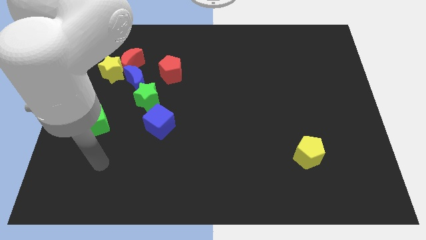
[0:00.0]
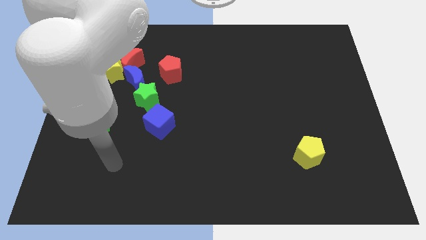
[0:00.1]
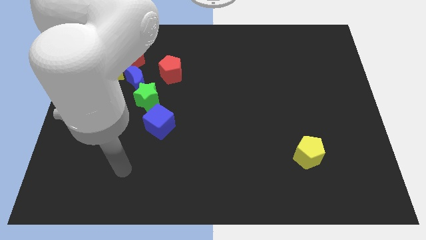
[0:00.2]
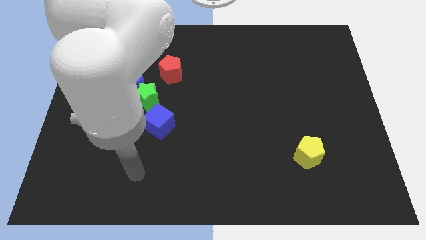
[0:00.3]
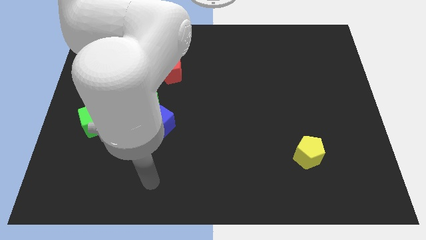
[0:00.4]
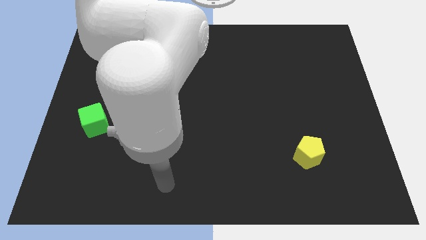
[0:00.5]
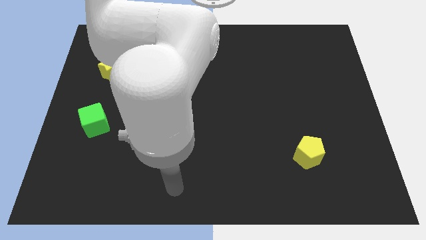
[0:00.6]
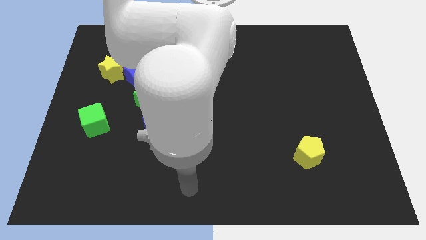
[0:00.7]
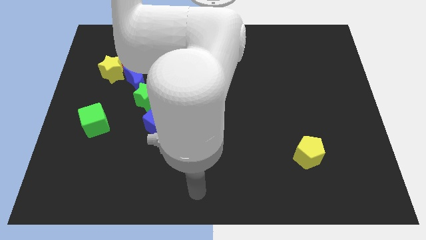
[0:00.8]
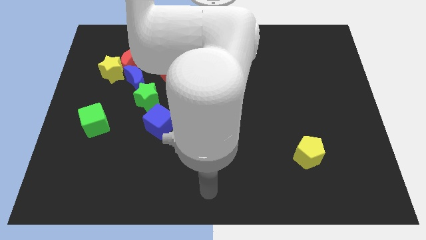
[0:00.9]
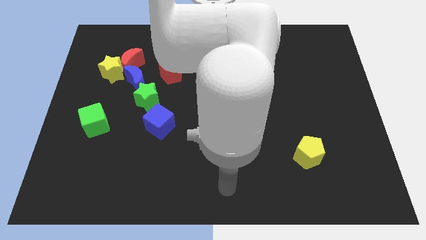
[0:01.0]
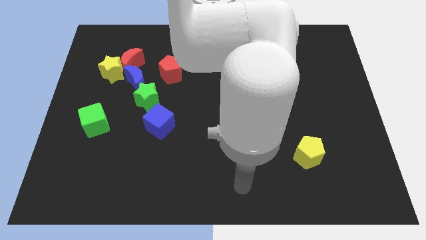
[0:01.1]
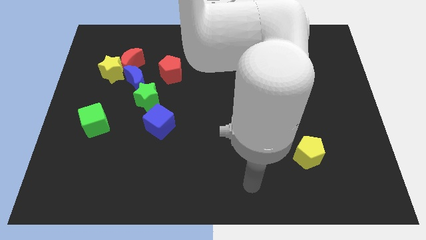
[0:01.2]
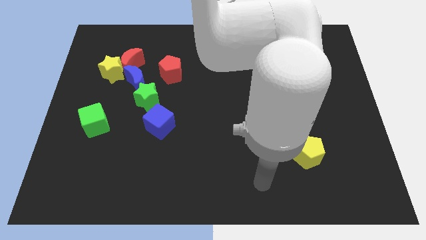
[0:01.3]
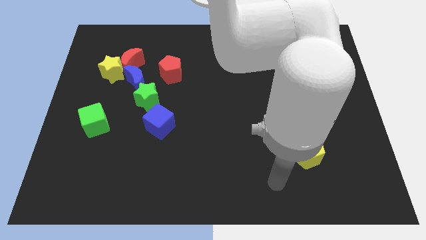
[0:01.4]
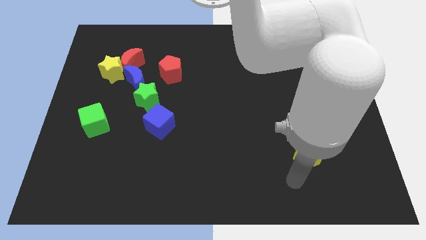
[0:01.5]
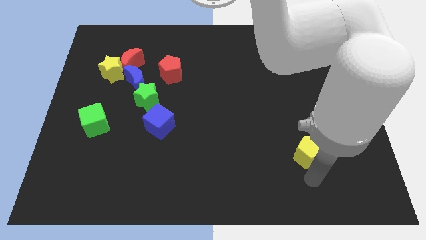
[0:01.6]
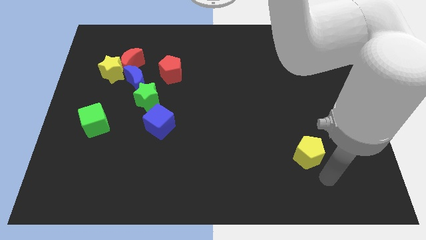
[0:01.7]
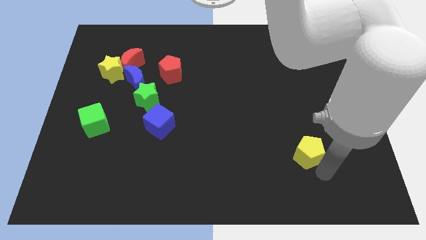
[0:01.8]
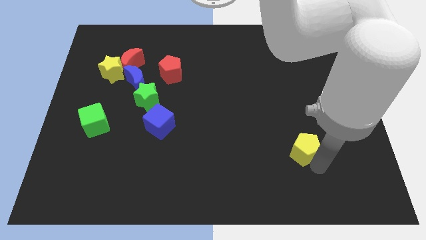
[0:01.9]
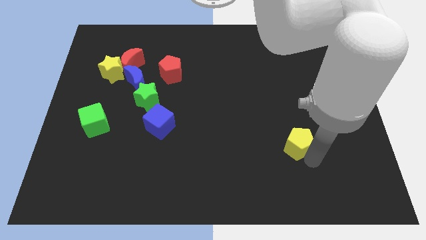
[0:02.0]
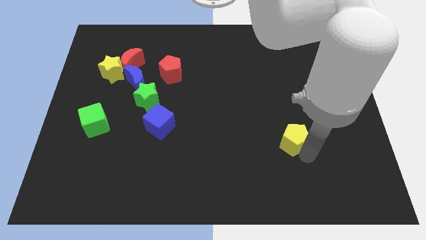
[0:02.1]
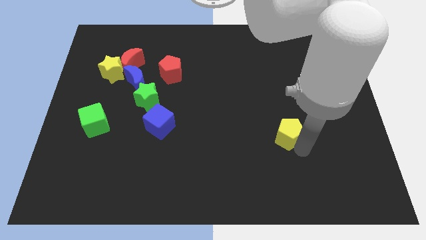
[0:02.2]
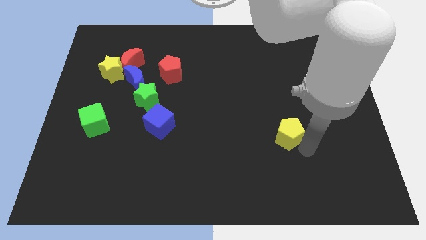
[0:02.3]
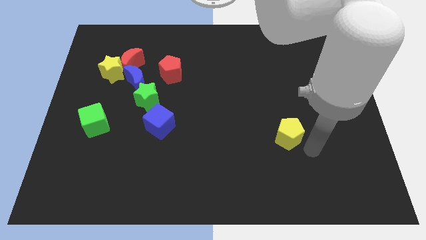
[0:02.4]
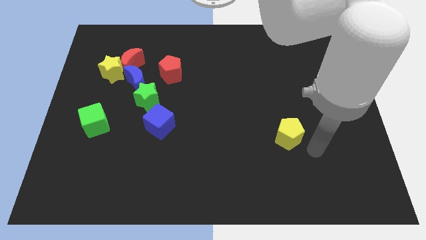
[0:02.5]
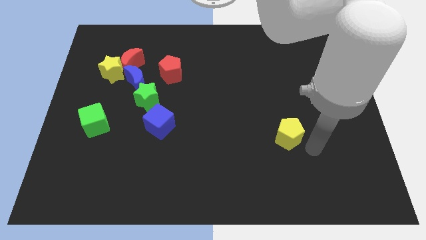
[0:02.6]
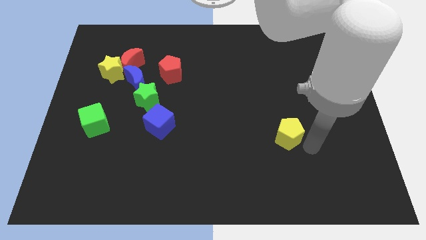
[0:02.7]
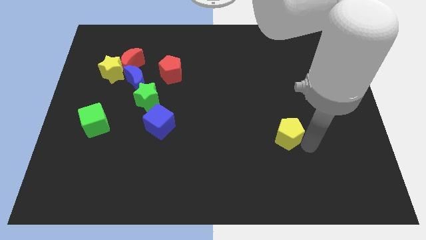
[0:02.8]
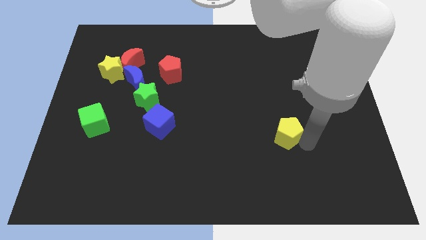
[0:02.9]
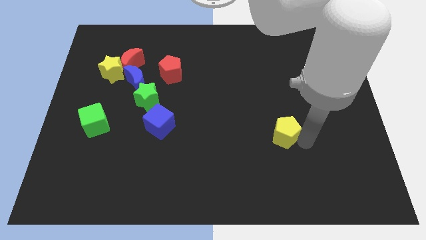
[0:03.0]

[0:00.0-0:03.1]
push the yellow pentagon somewhat upwards and to the left diagonally

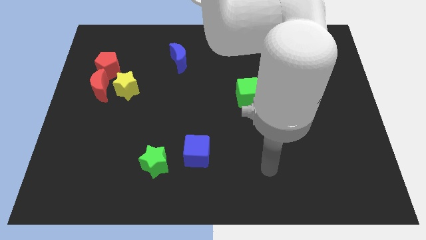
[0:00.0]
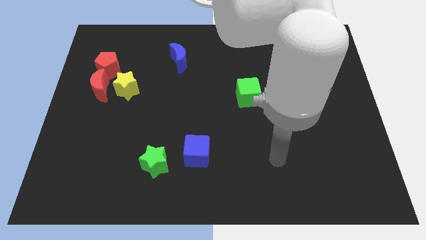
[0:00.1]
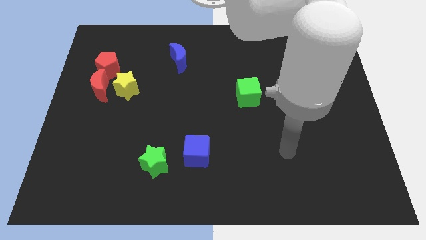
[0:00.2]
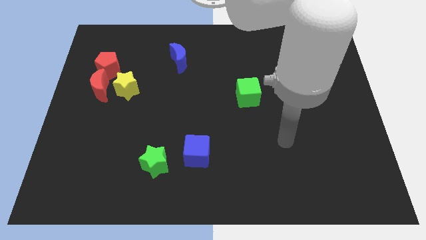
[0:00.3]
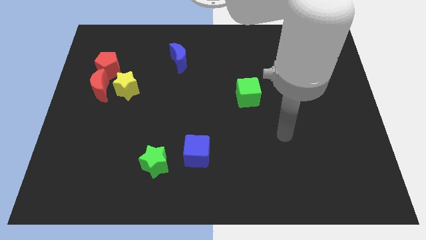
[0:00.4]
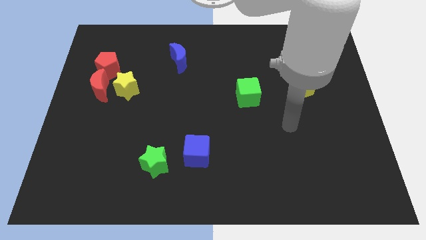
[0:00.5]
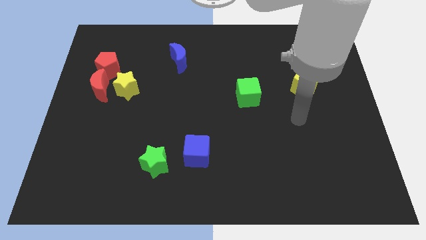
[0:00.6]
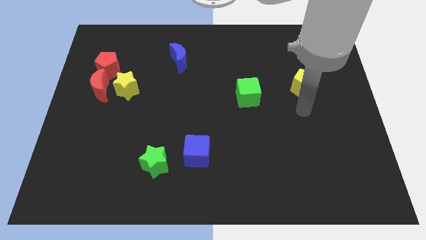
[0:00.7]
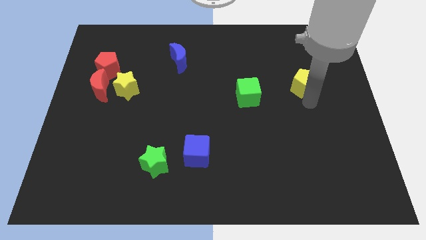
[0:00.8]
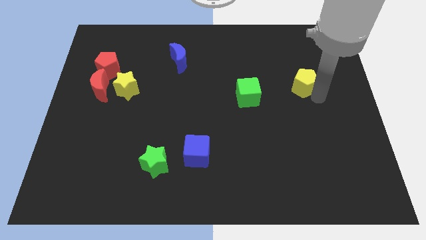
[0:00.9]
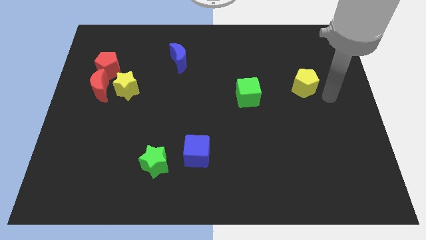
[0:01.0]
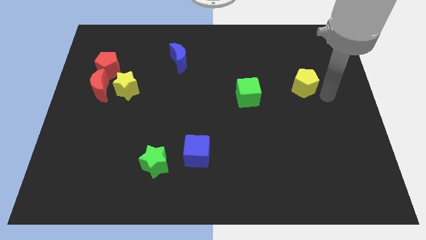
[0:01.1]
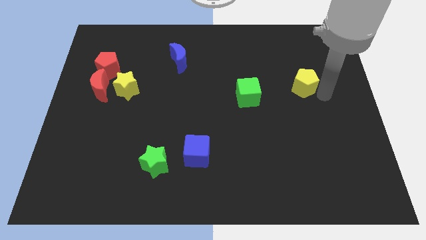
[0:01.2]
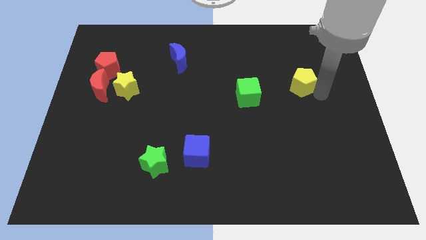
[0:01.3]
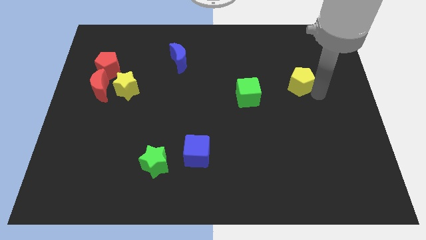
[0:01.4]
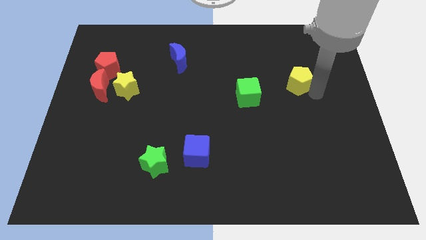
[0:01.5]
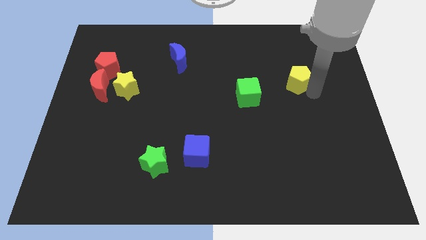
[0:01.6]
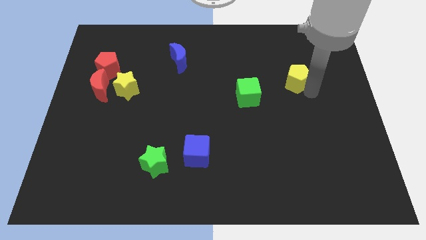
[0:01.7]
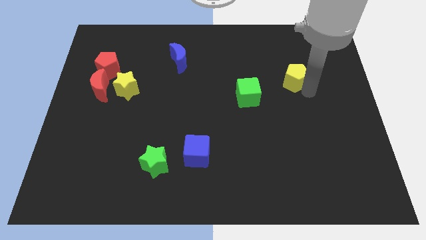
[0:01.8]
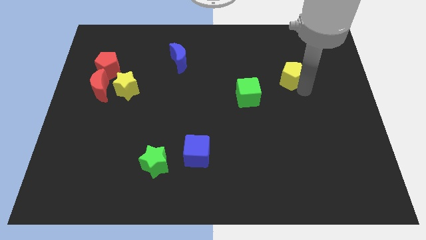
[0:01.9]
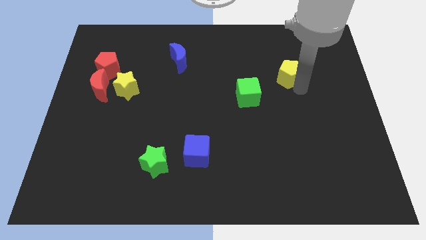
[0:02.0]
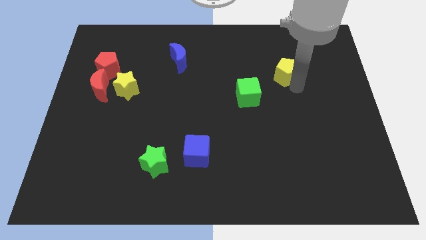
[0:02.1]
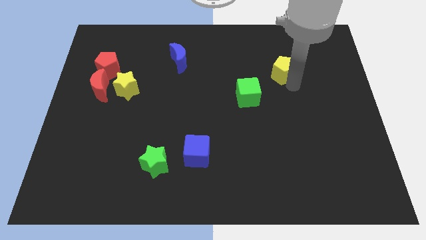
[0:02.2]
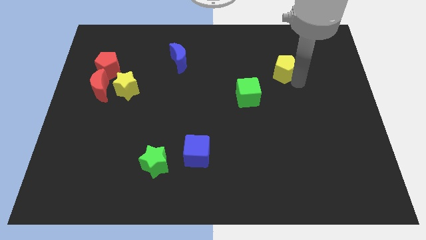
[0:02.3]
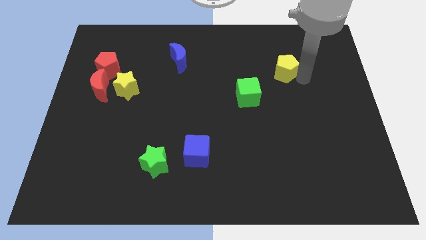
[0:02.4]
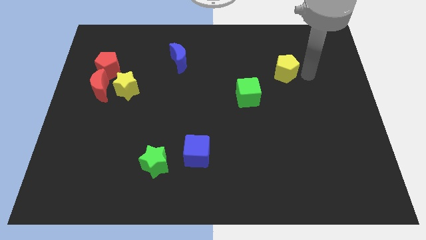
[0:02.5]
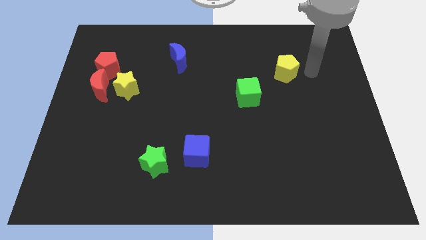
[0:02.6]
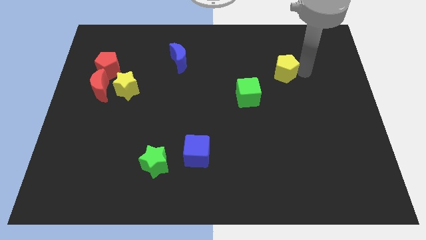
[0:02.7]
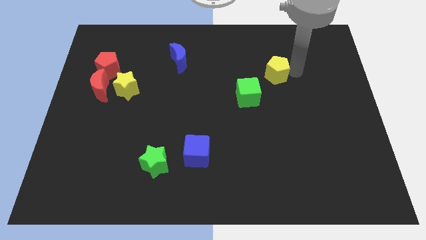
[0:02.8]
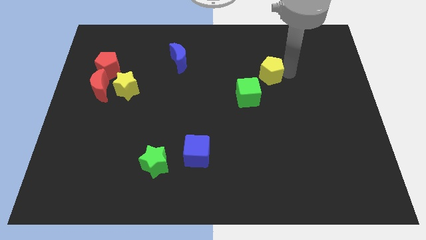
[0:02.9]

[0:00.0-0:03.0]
slide the yellow pentagon somewhat left

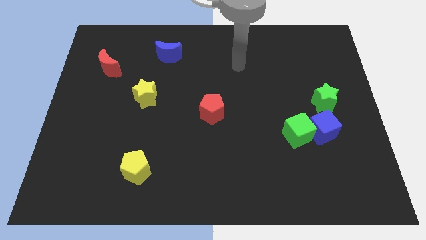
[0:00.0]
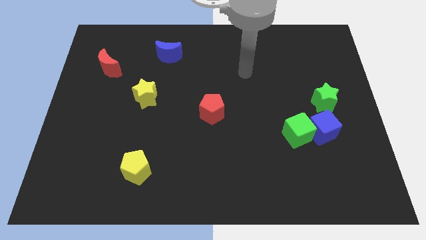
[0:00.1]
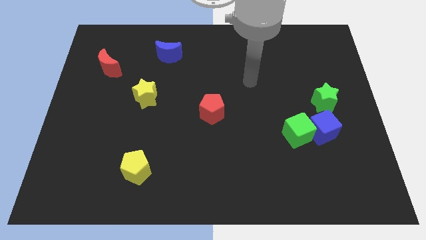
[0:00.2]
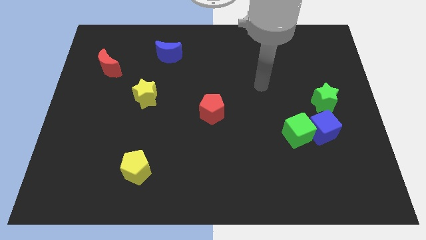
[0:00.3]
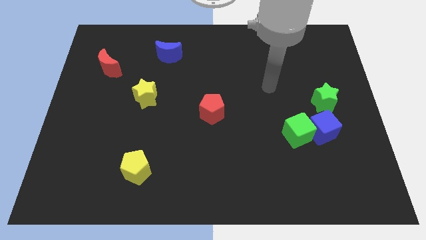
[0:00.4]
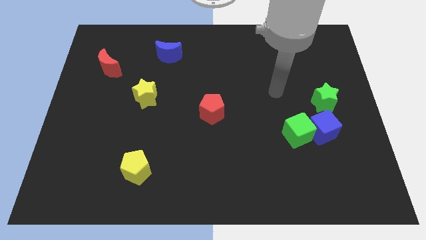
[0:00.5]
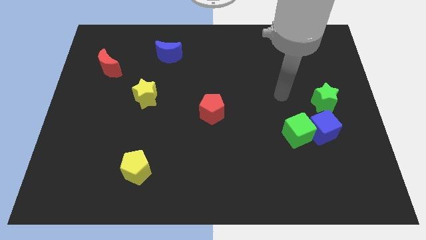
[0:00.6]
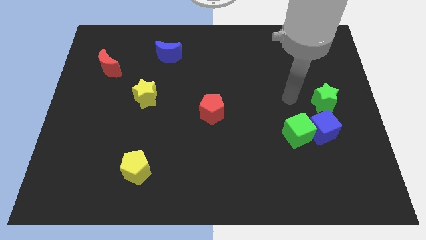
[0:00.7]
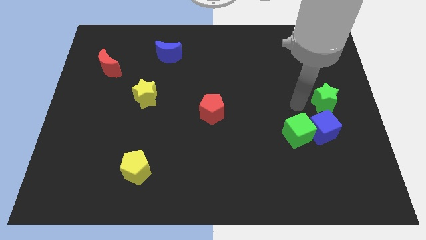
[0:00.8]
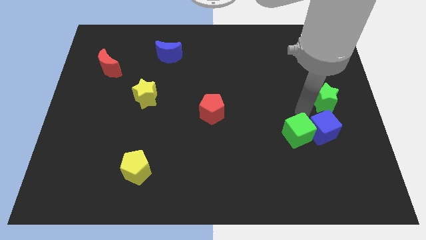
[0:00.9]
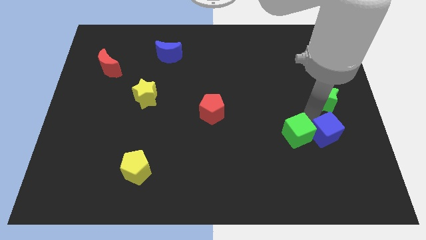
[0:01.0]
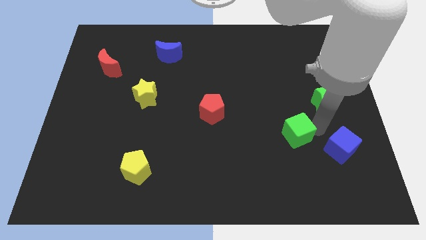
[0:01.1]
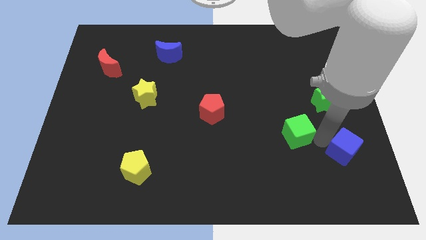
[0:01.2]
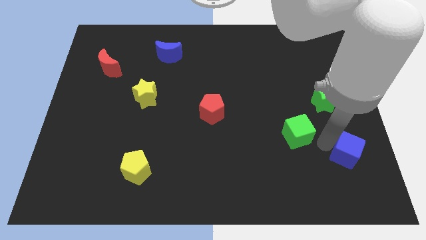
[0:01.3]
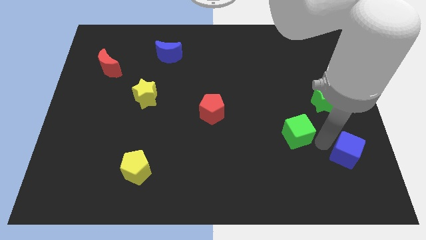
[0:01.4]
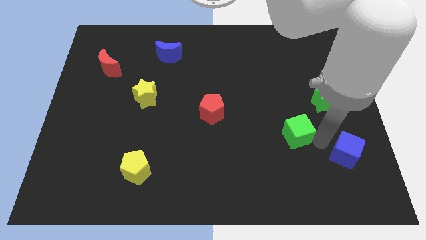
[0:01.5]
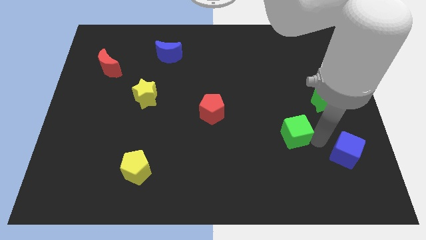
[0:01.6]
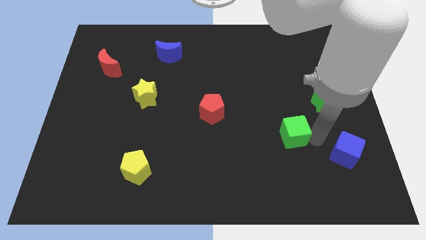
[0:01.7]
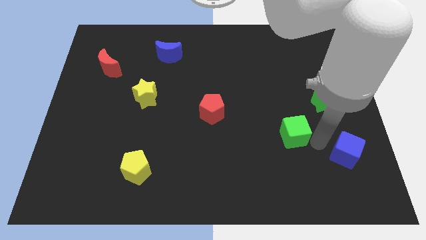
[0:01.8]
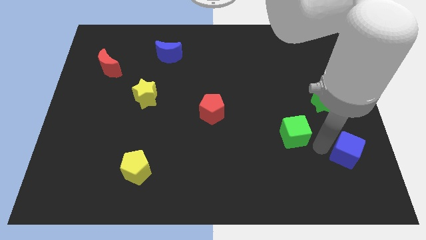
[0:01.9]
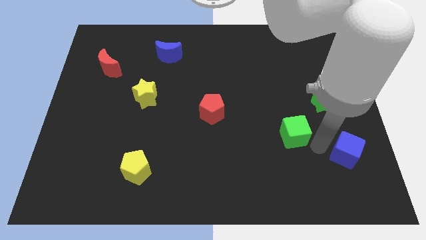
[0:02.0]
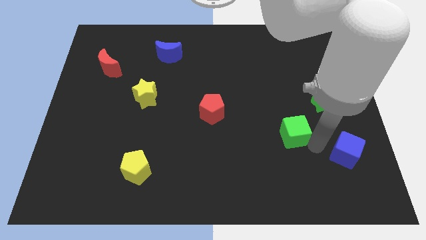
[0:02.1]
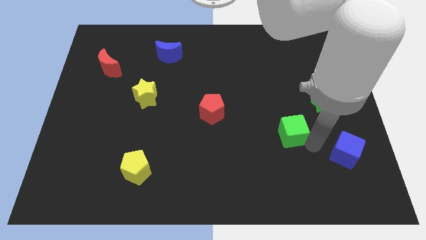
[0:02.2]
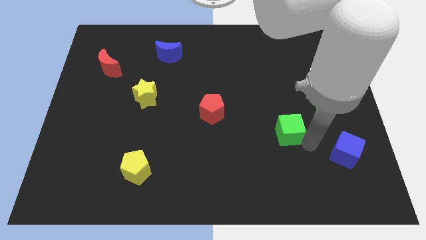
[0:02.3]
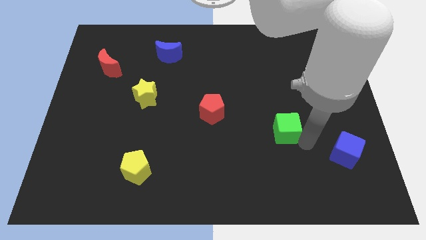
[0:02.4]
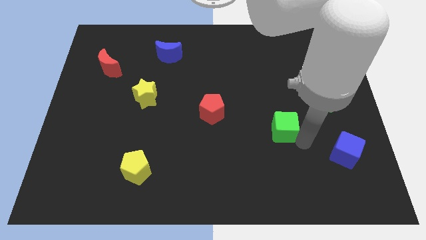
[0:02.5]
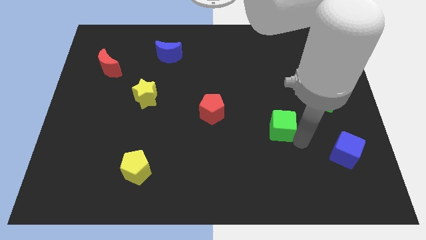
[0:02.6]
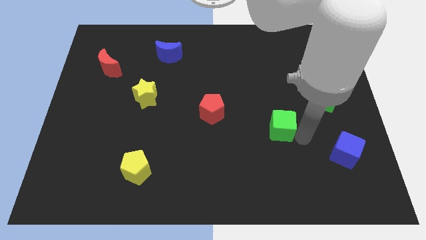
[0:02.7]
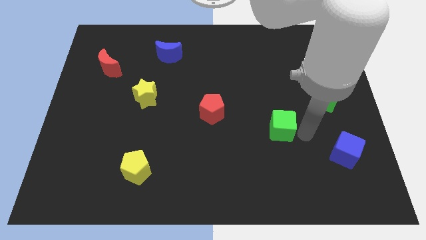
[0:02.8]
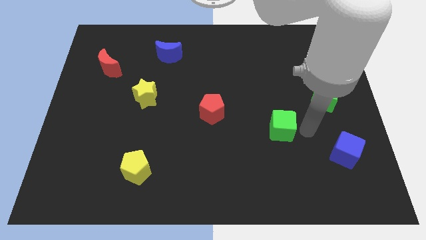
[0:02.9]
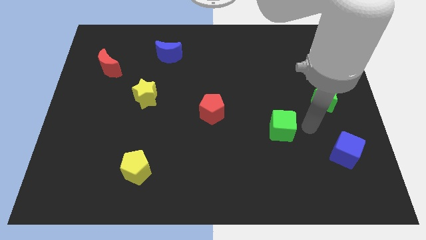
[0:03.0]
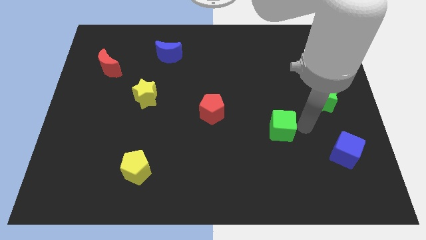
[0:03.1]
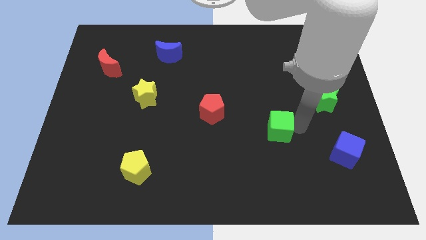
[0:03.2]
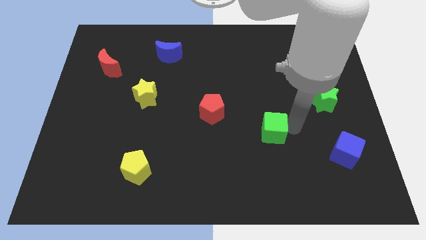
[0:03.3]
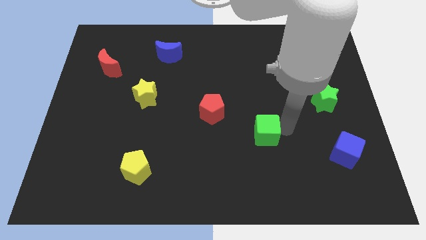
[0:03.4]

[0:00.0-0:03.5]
slide the green cube a little bit left
